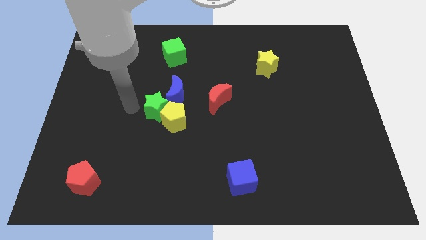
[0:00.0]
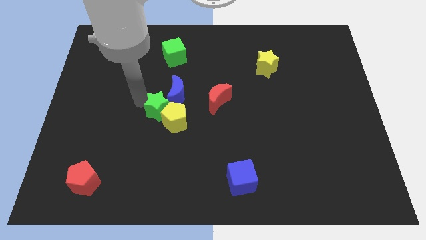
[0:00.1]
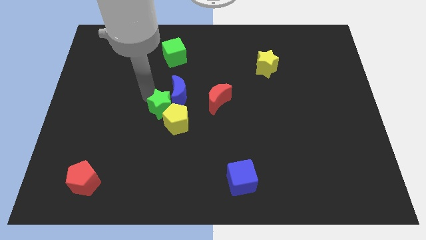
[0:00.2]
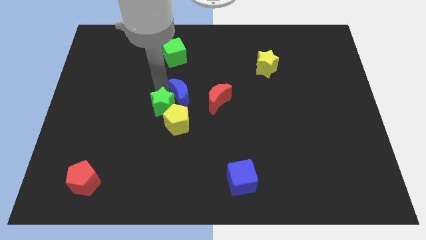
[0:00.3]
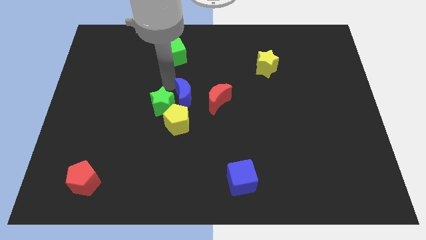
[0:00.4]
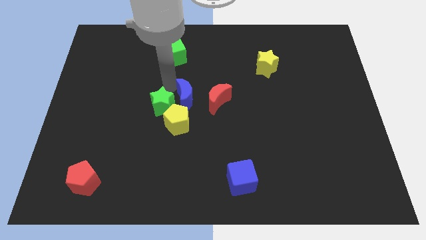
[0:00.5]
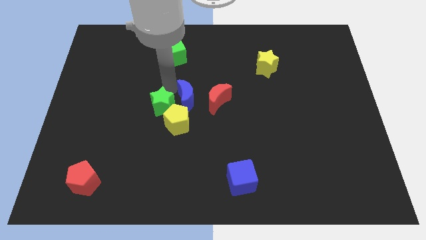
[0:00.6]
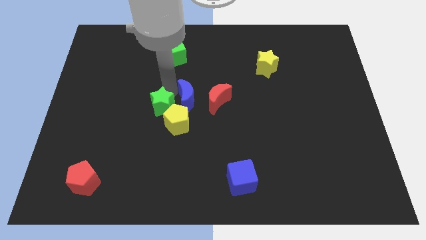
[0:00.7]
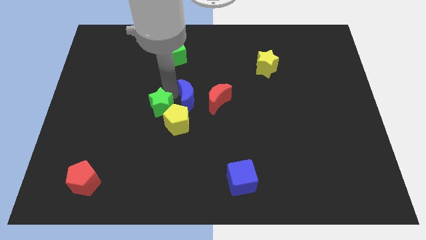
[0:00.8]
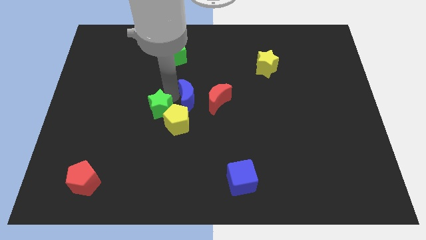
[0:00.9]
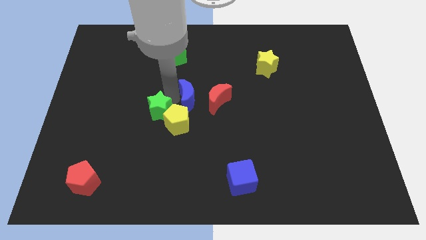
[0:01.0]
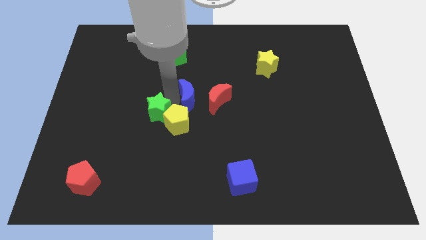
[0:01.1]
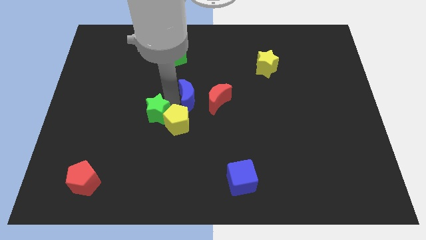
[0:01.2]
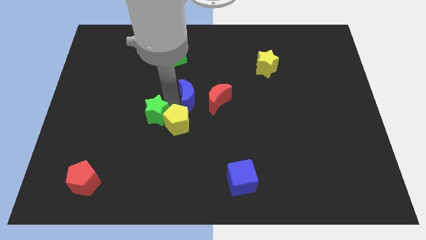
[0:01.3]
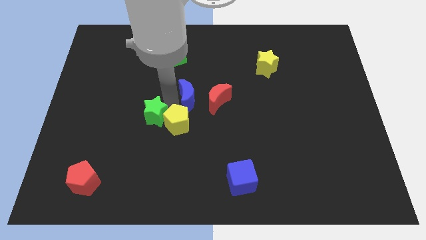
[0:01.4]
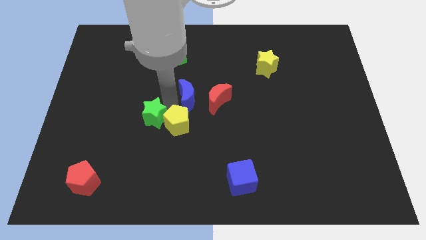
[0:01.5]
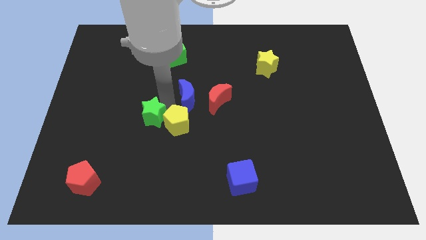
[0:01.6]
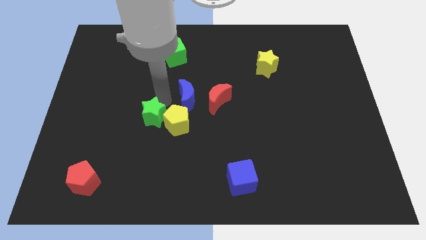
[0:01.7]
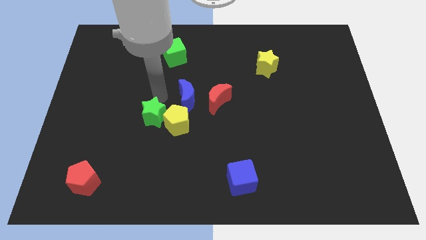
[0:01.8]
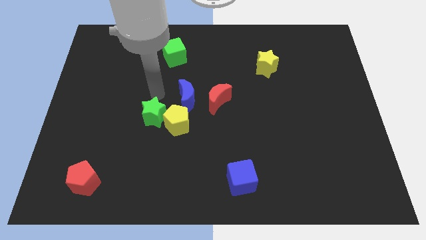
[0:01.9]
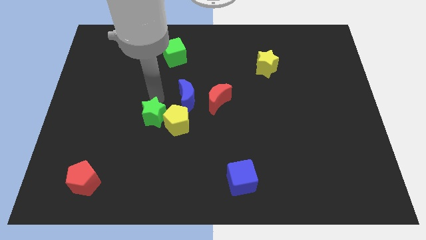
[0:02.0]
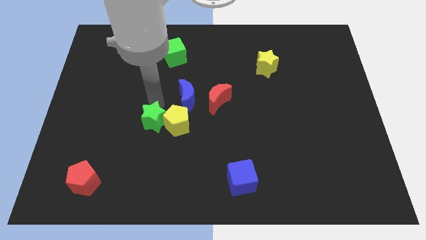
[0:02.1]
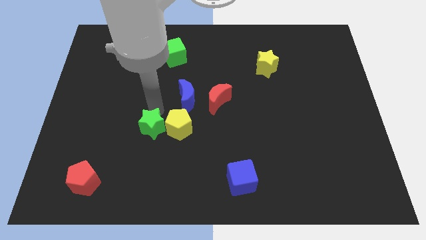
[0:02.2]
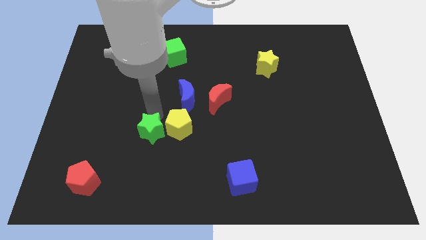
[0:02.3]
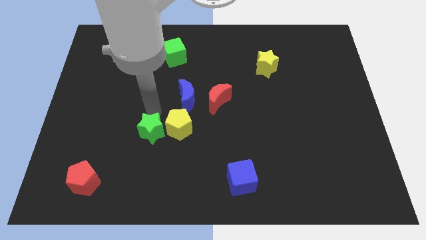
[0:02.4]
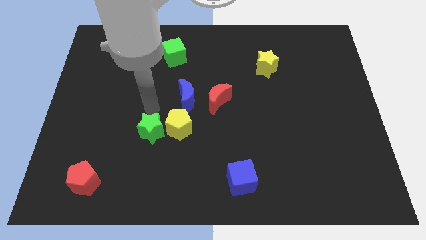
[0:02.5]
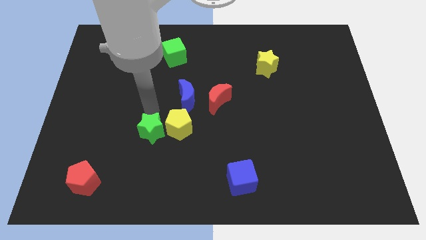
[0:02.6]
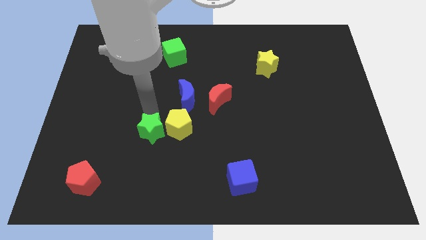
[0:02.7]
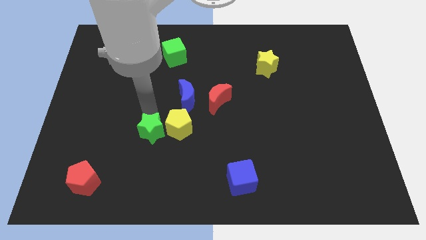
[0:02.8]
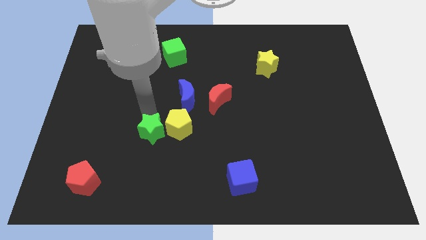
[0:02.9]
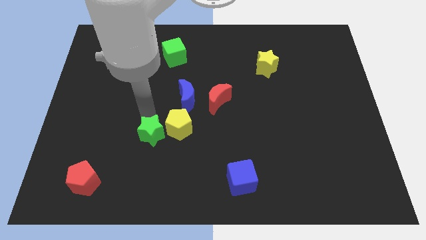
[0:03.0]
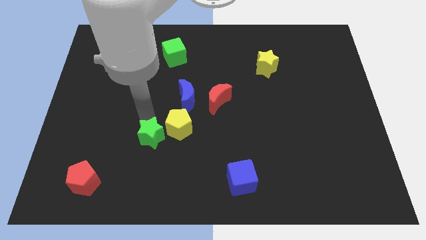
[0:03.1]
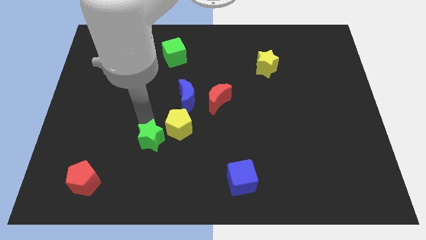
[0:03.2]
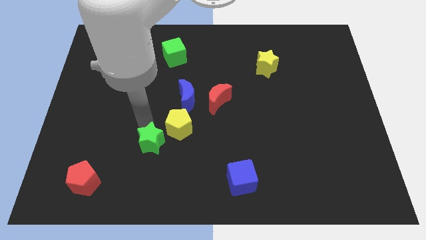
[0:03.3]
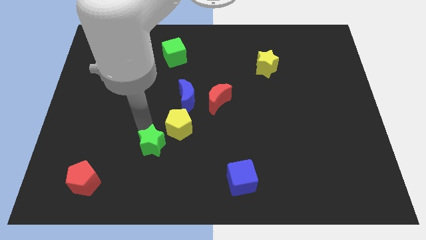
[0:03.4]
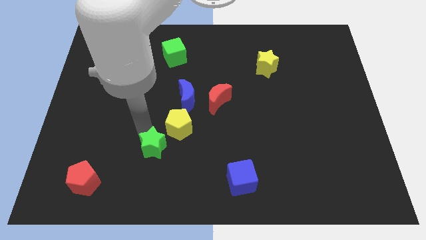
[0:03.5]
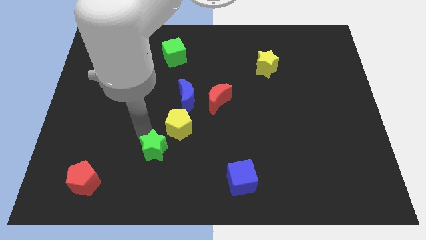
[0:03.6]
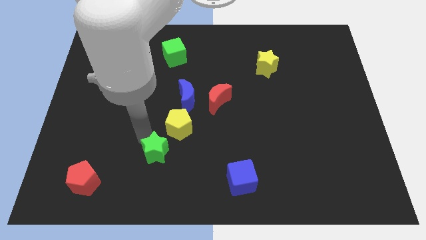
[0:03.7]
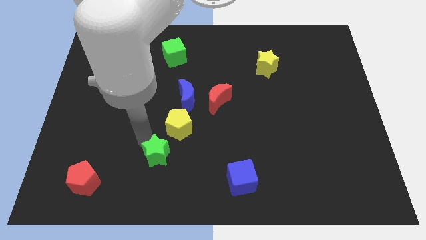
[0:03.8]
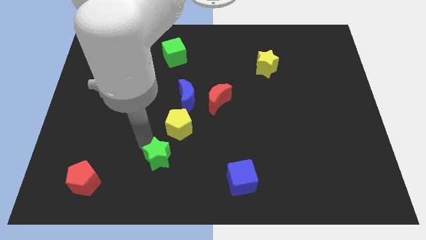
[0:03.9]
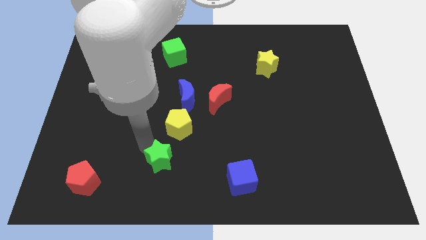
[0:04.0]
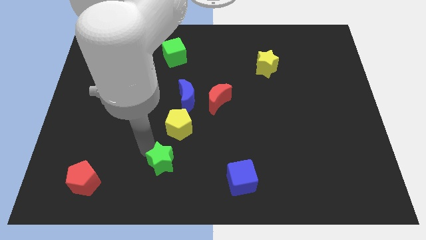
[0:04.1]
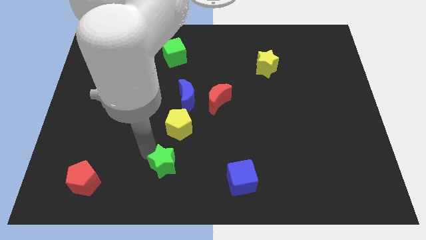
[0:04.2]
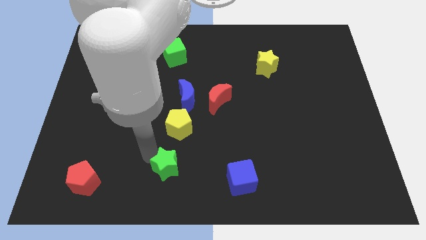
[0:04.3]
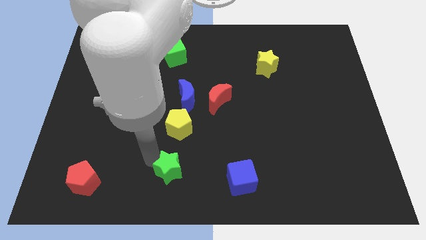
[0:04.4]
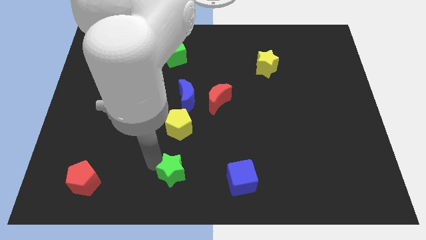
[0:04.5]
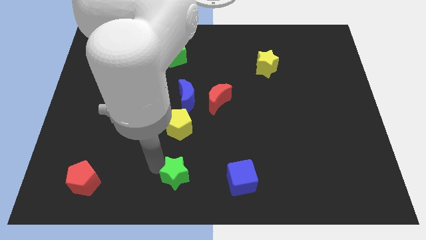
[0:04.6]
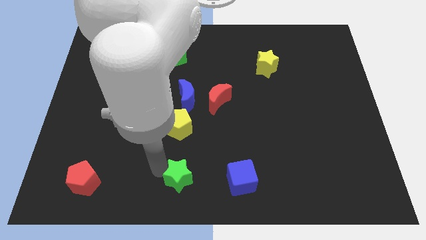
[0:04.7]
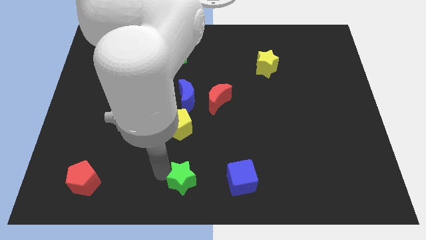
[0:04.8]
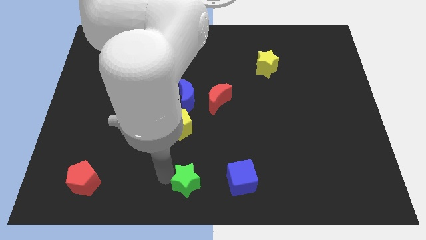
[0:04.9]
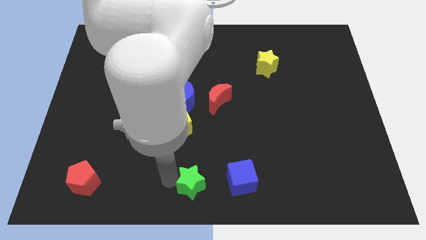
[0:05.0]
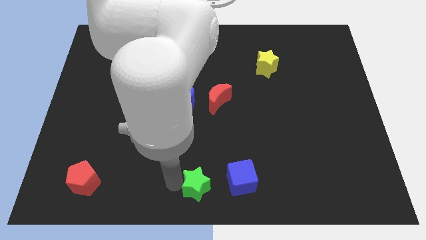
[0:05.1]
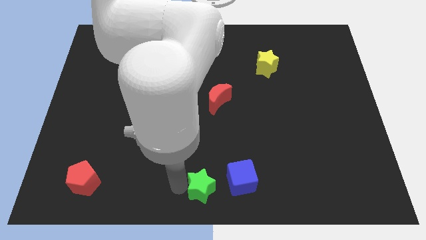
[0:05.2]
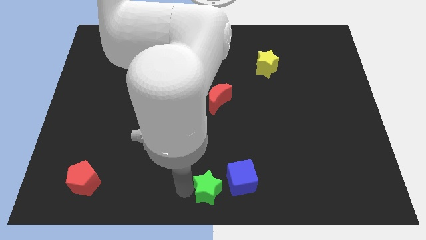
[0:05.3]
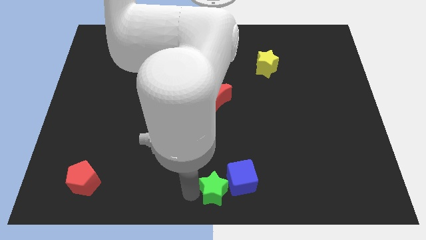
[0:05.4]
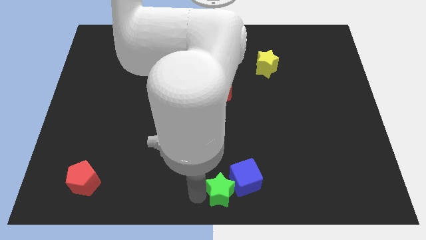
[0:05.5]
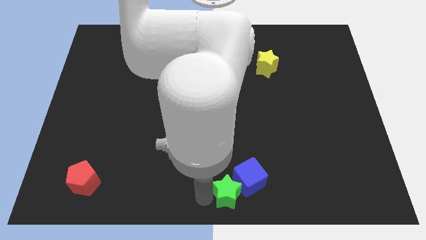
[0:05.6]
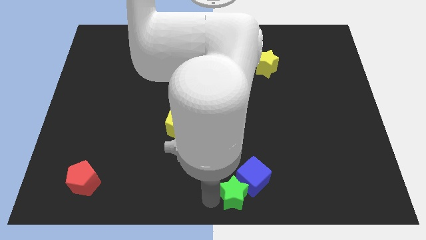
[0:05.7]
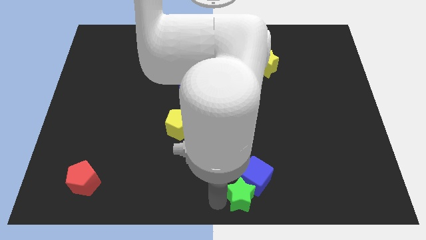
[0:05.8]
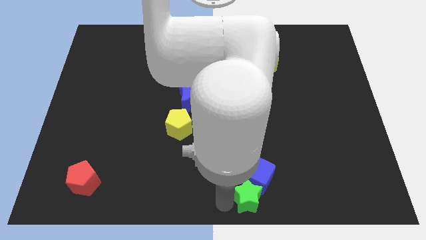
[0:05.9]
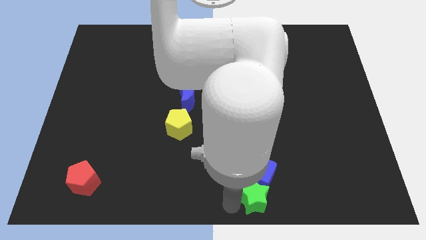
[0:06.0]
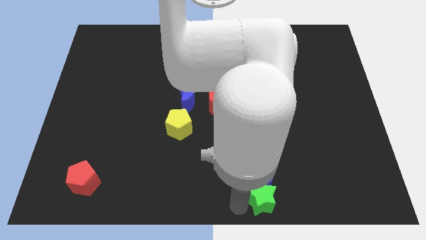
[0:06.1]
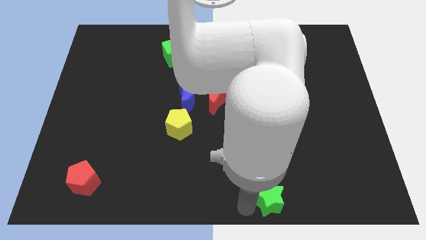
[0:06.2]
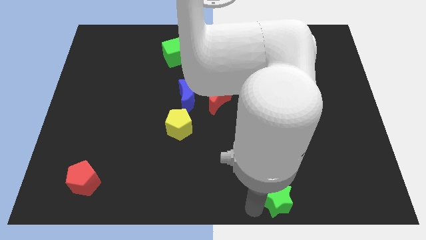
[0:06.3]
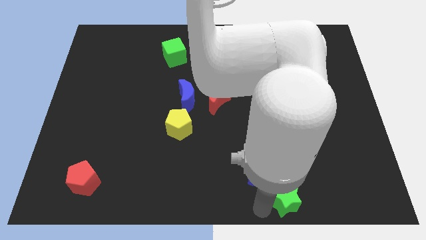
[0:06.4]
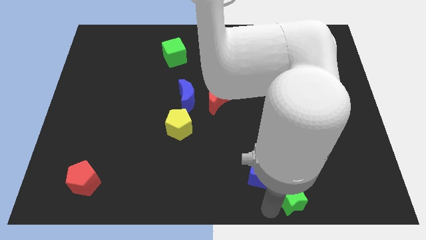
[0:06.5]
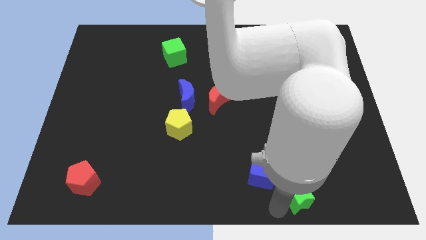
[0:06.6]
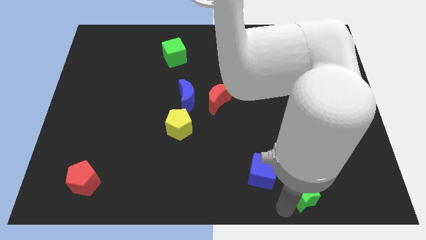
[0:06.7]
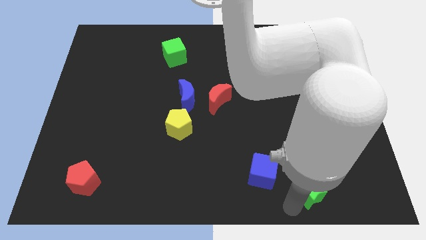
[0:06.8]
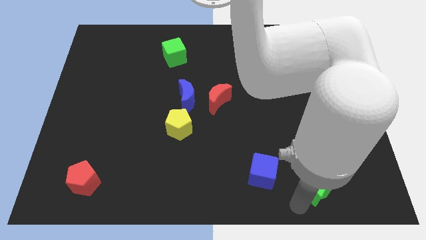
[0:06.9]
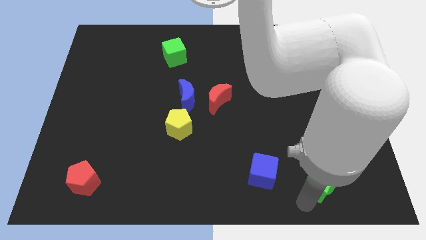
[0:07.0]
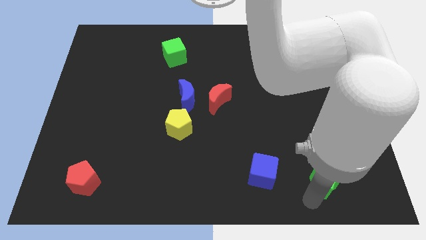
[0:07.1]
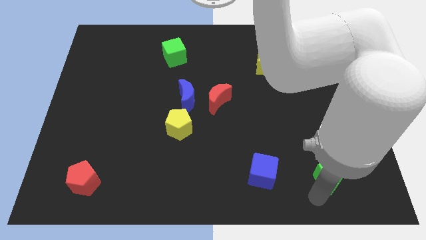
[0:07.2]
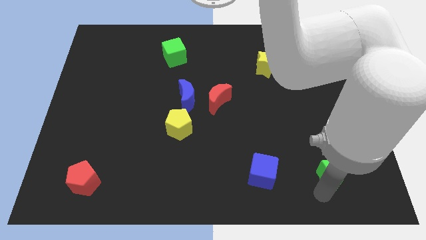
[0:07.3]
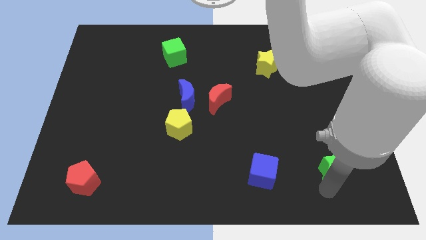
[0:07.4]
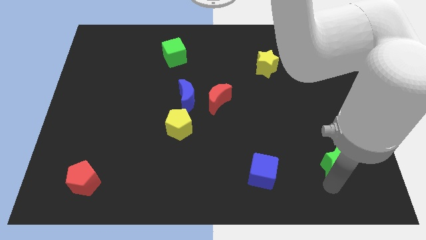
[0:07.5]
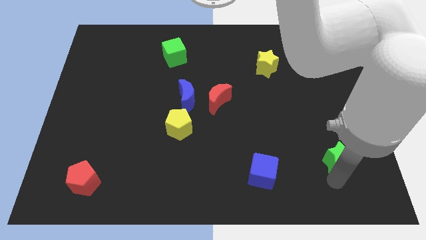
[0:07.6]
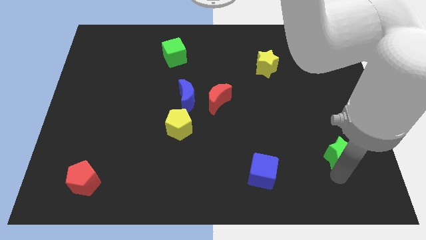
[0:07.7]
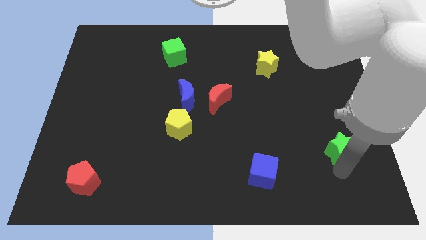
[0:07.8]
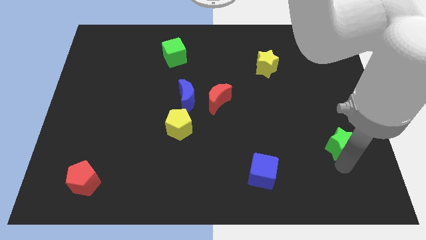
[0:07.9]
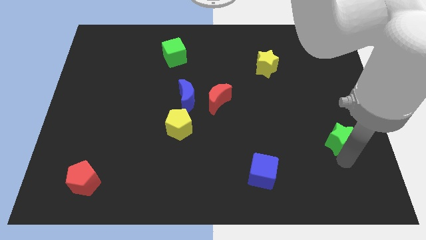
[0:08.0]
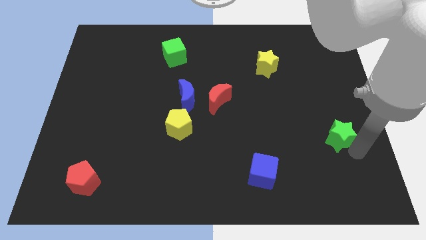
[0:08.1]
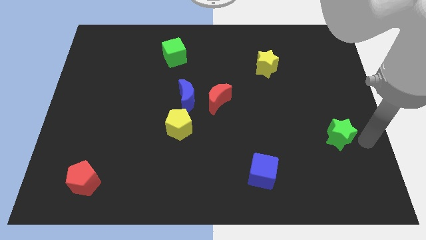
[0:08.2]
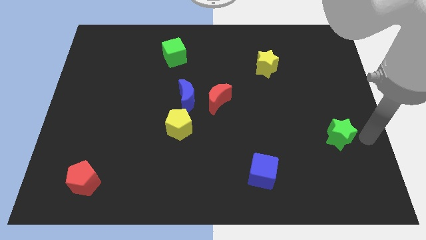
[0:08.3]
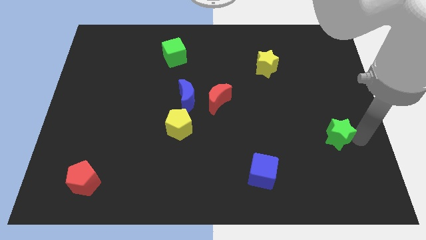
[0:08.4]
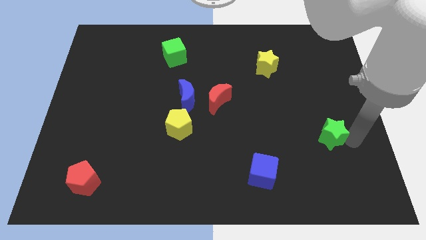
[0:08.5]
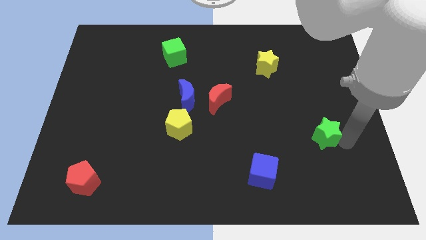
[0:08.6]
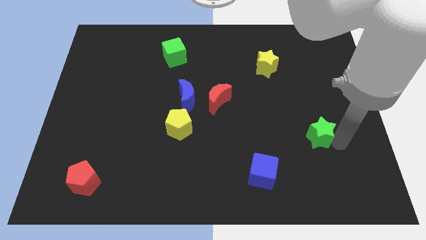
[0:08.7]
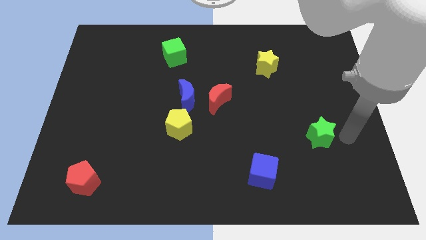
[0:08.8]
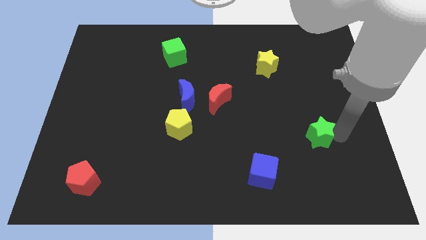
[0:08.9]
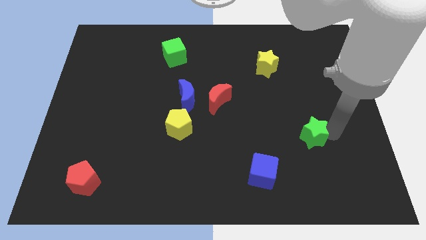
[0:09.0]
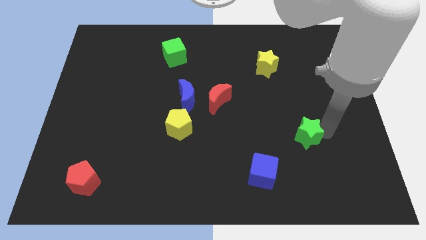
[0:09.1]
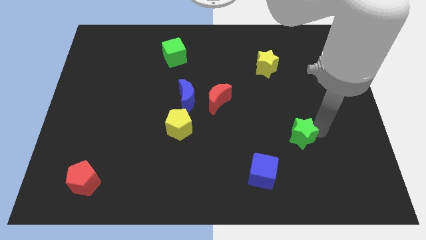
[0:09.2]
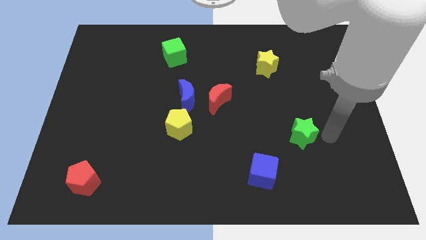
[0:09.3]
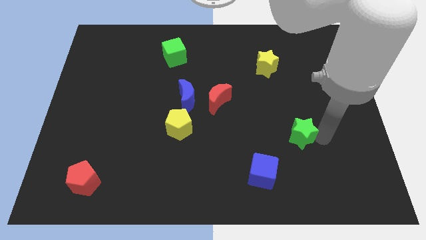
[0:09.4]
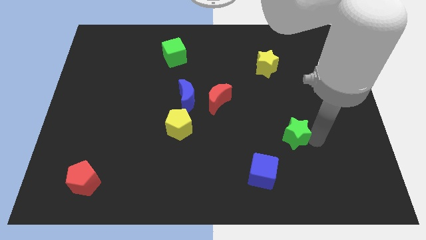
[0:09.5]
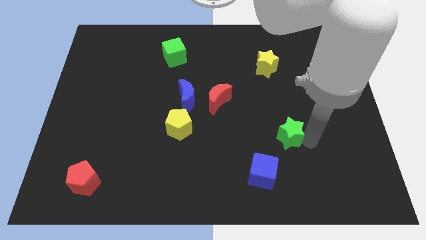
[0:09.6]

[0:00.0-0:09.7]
slide the green star right a bit
